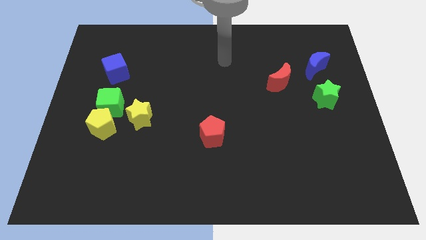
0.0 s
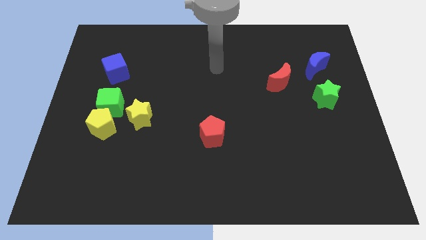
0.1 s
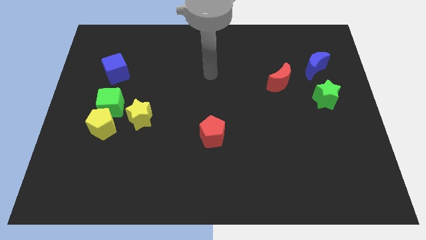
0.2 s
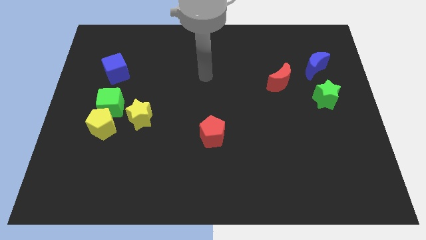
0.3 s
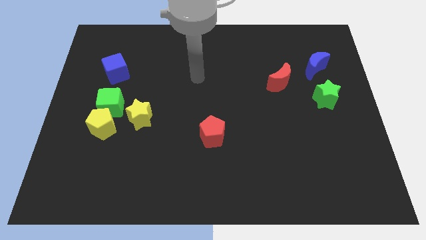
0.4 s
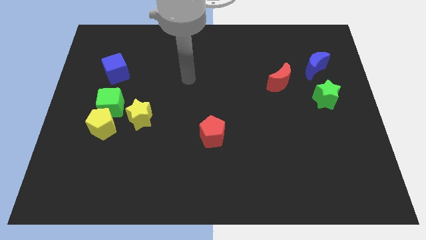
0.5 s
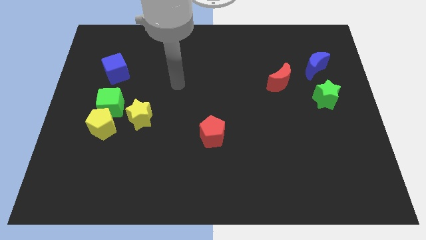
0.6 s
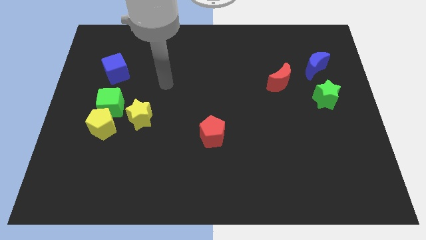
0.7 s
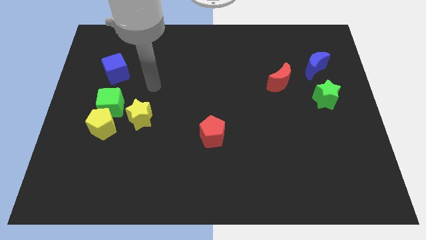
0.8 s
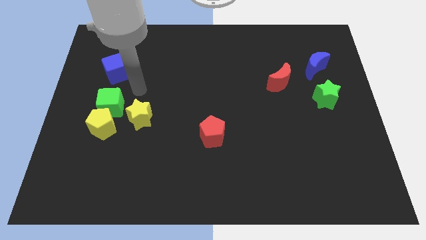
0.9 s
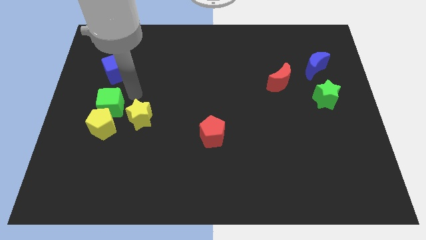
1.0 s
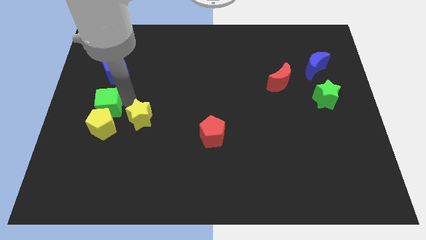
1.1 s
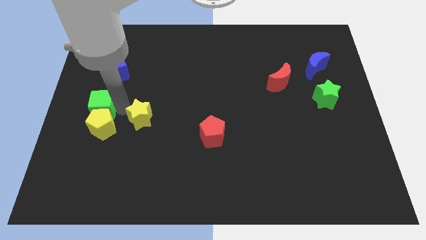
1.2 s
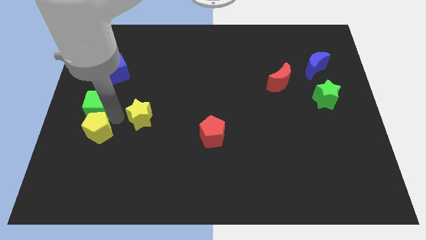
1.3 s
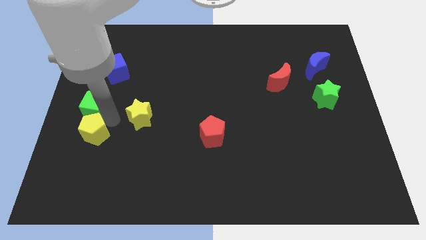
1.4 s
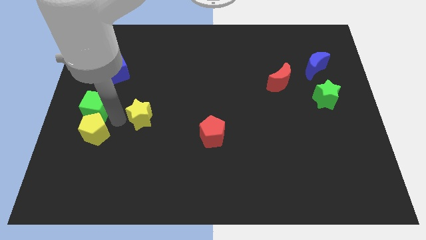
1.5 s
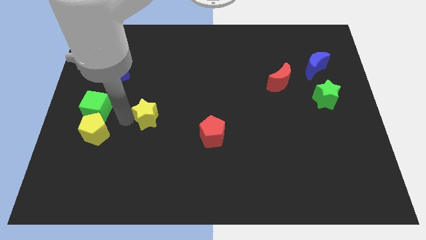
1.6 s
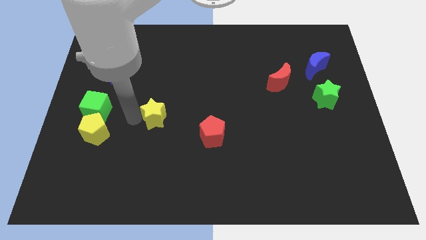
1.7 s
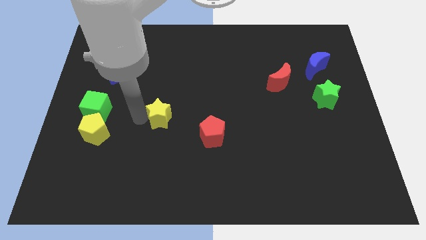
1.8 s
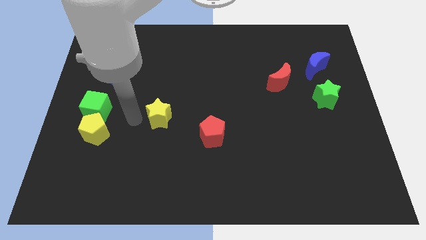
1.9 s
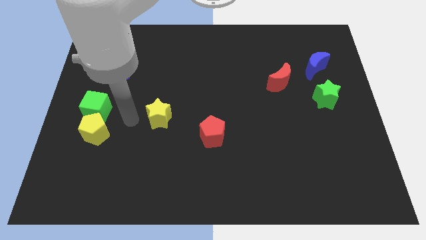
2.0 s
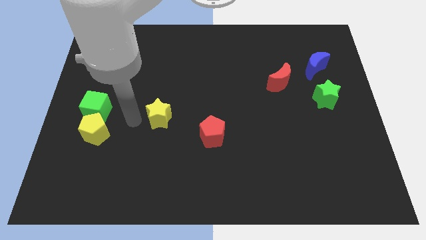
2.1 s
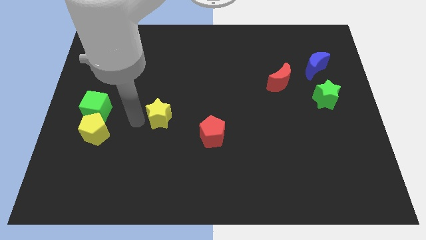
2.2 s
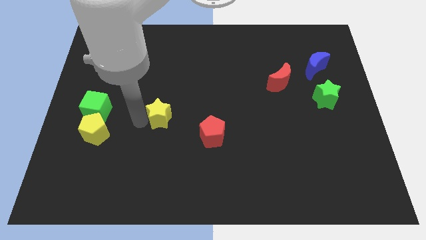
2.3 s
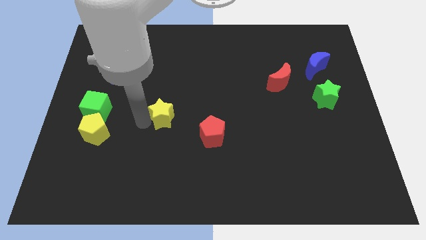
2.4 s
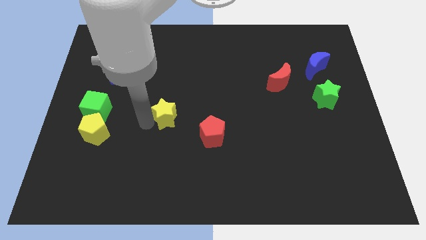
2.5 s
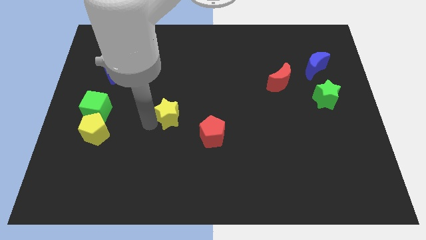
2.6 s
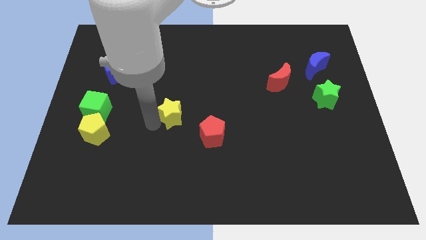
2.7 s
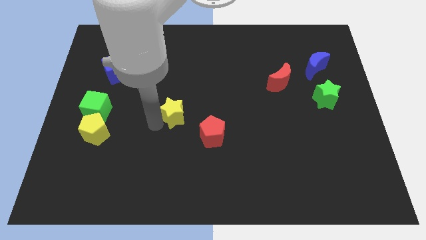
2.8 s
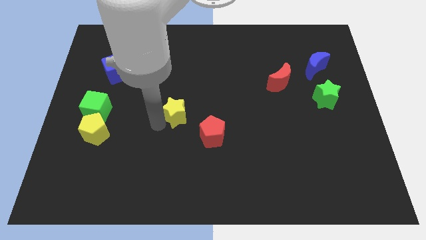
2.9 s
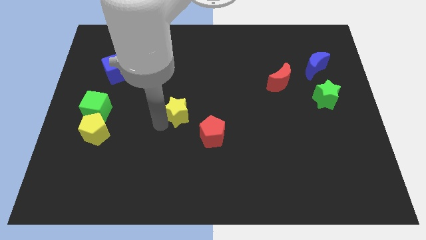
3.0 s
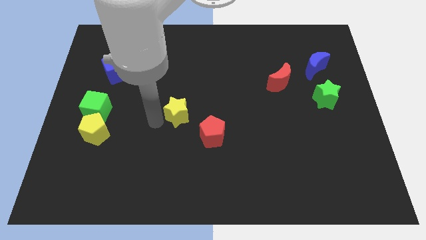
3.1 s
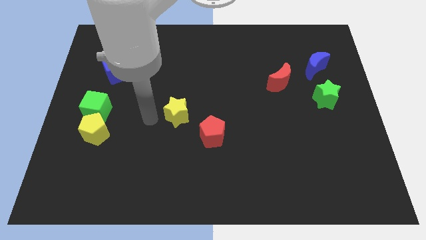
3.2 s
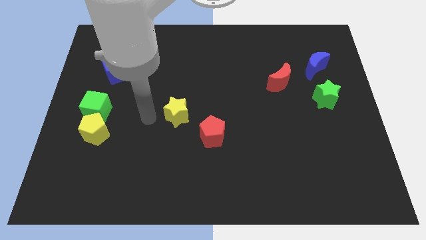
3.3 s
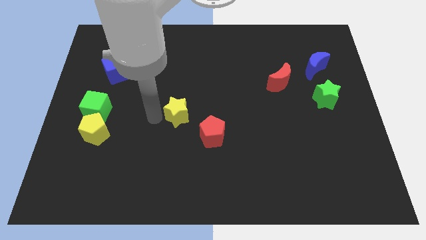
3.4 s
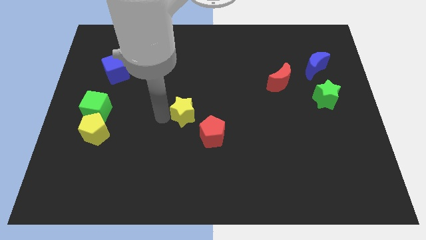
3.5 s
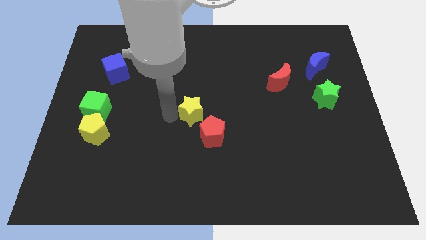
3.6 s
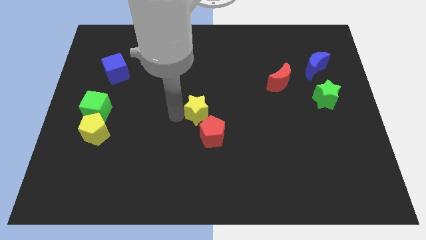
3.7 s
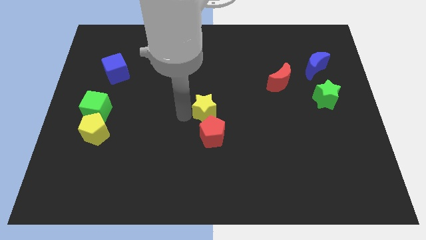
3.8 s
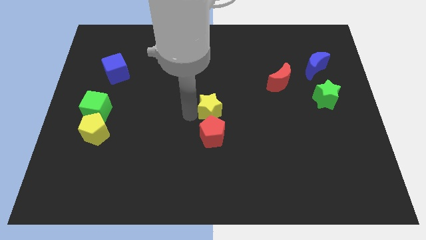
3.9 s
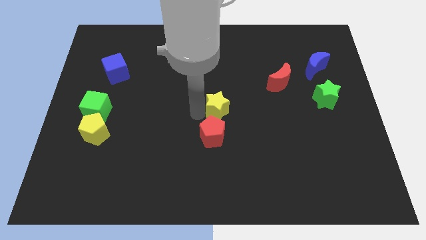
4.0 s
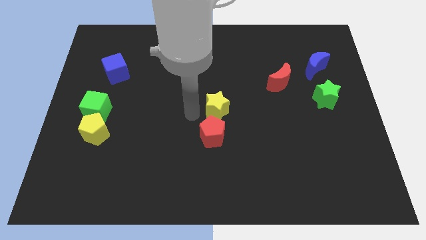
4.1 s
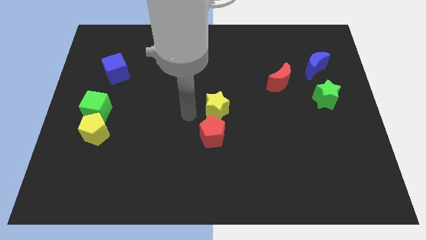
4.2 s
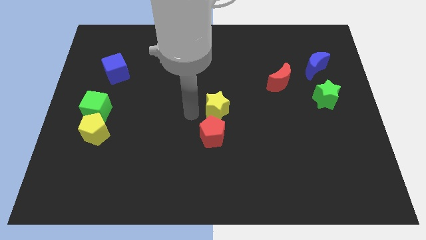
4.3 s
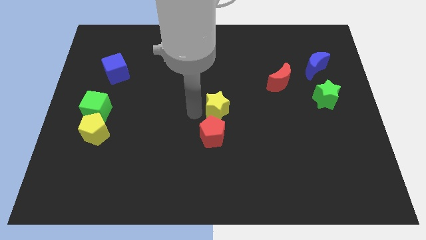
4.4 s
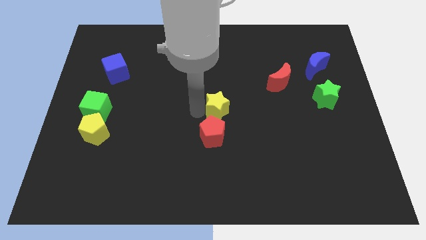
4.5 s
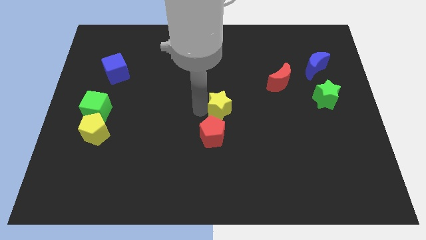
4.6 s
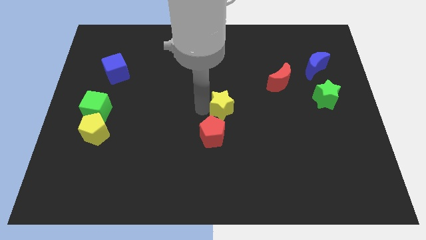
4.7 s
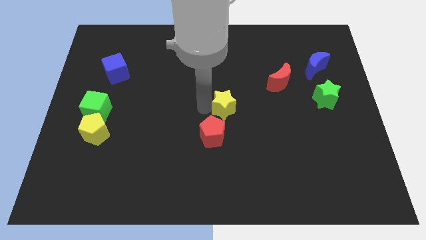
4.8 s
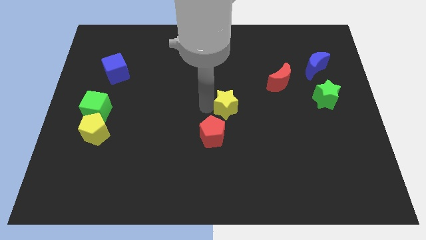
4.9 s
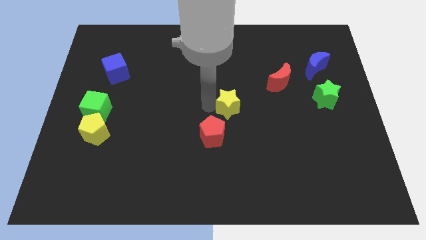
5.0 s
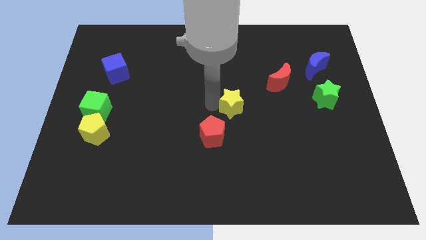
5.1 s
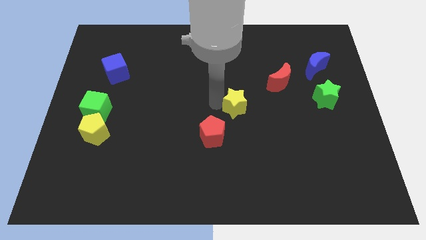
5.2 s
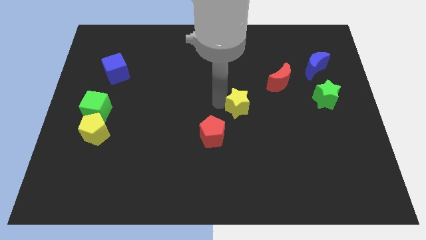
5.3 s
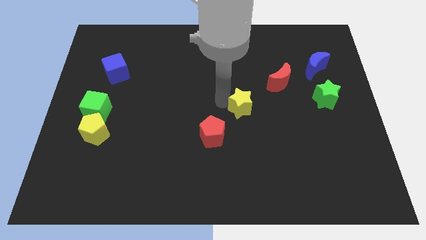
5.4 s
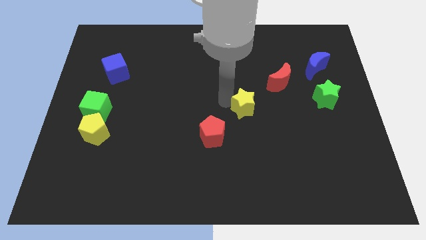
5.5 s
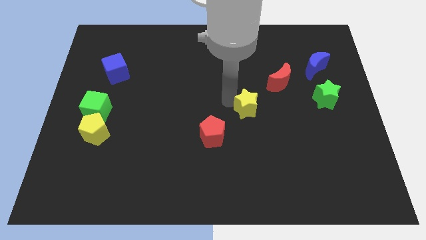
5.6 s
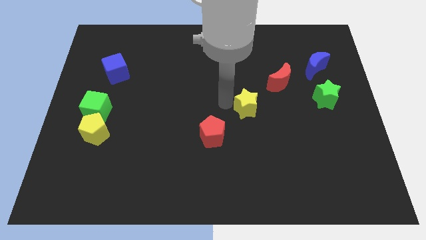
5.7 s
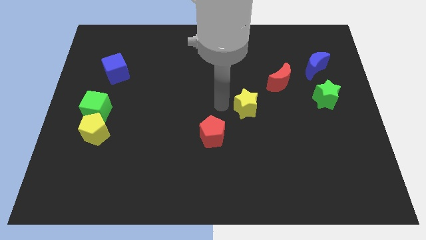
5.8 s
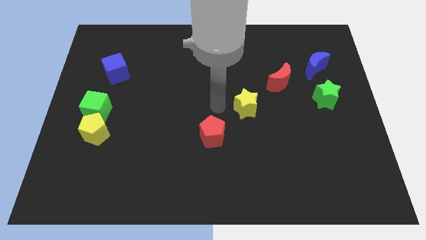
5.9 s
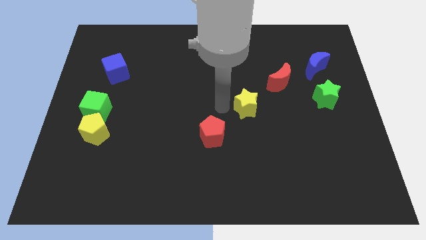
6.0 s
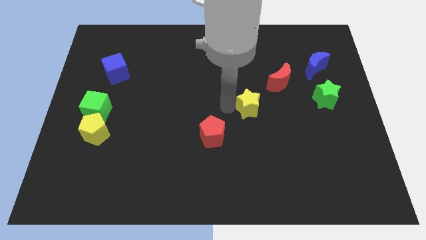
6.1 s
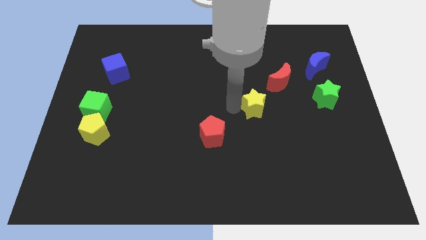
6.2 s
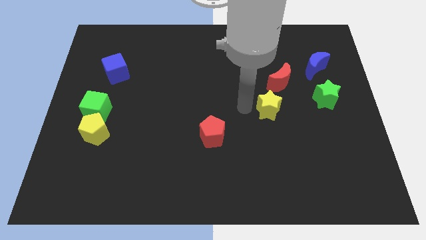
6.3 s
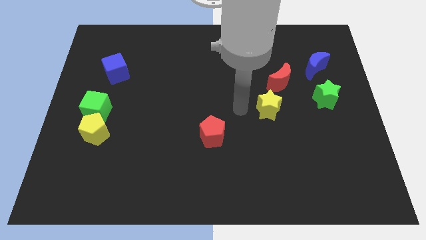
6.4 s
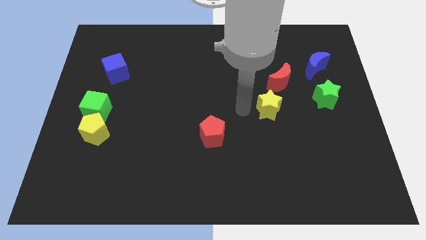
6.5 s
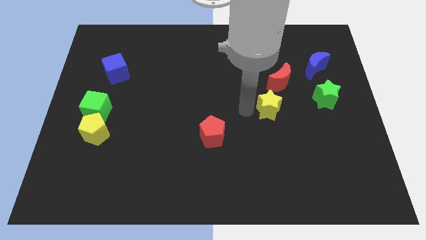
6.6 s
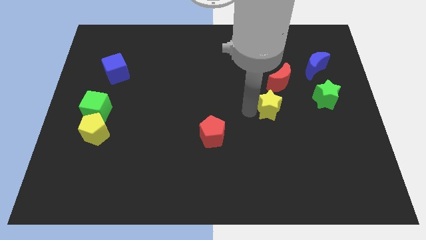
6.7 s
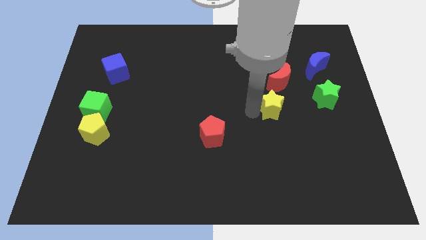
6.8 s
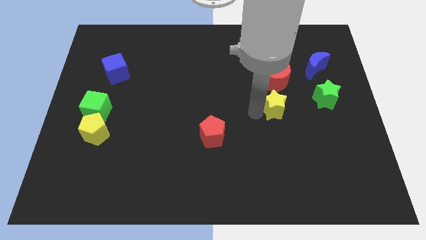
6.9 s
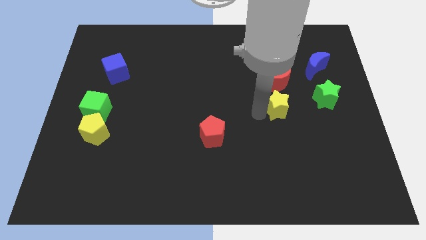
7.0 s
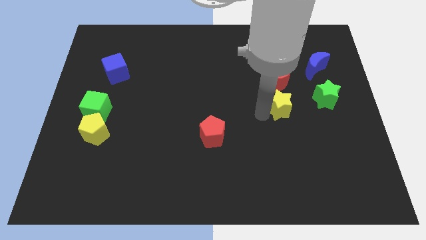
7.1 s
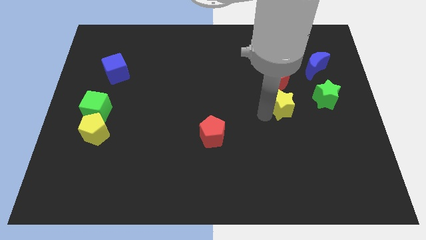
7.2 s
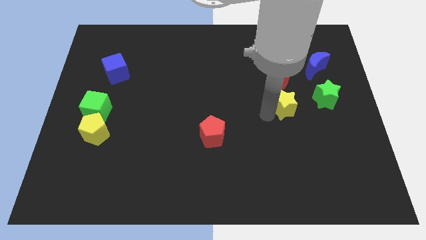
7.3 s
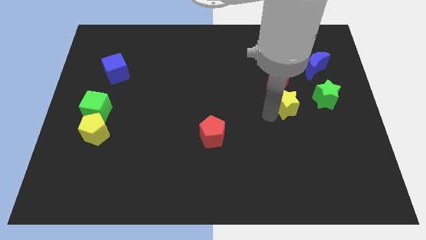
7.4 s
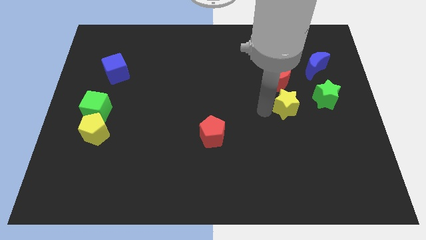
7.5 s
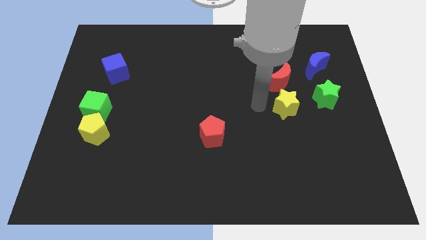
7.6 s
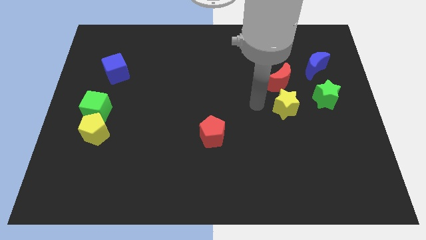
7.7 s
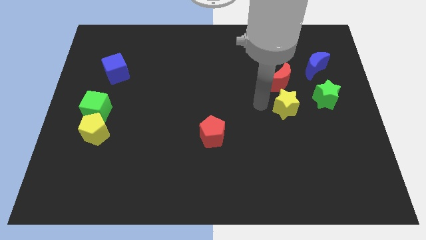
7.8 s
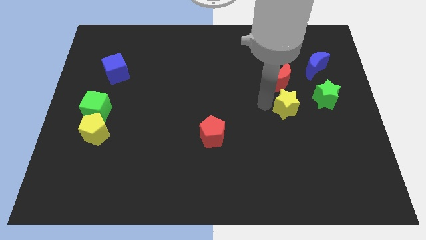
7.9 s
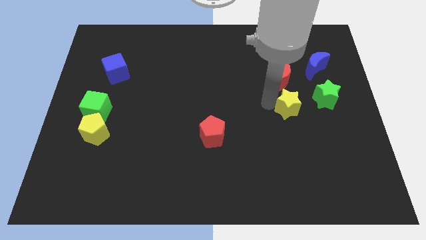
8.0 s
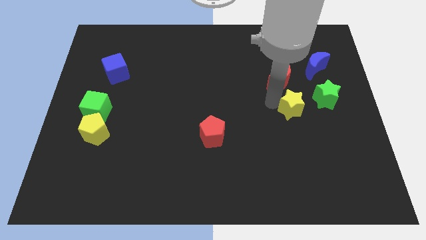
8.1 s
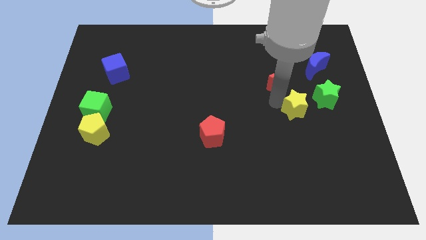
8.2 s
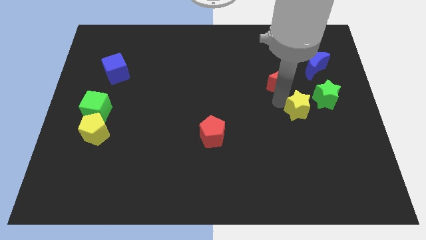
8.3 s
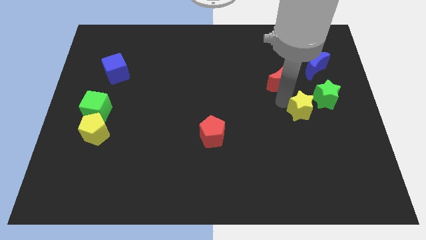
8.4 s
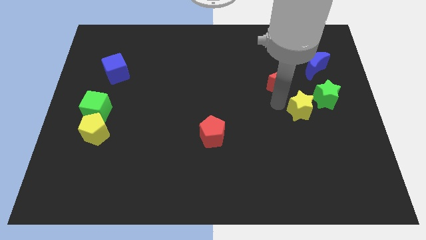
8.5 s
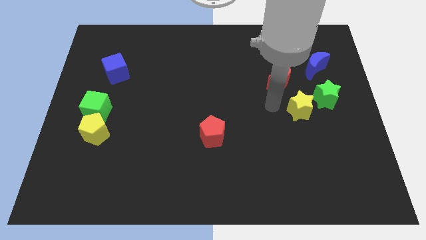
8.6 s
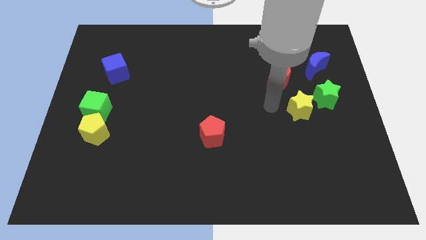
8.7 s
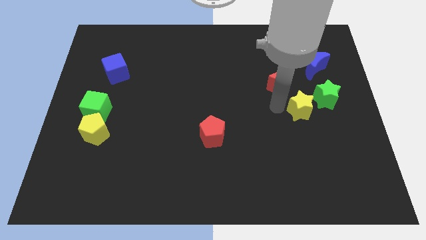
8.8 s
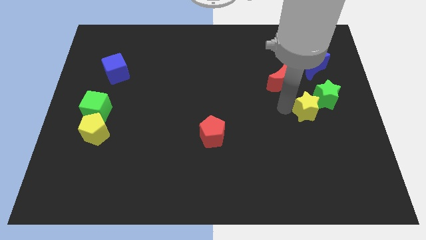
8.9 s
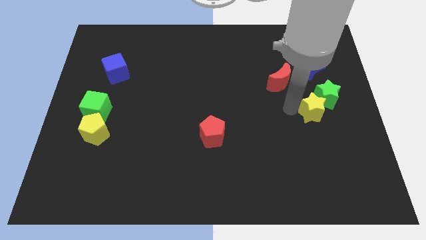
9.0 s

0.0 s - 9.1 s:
push the yellow star to the bottom of the blue moon
